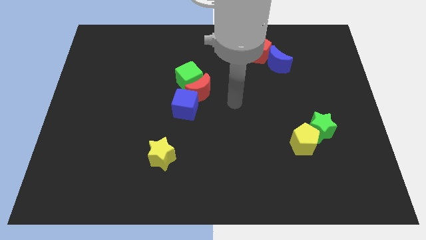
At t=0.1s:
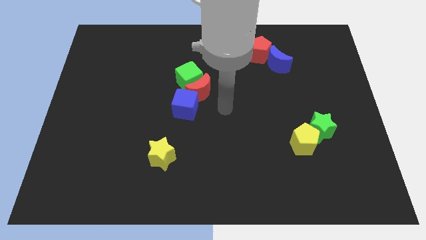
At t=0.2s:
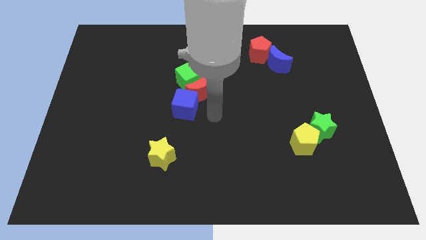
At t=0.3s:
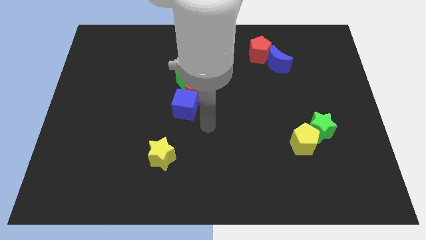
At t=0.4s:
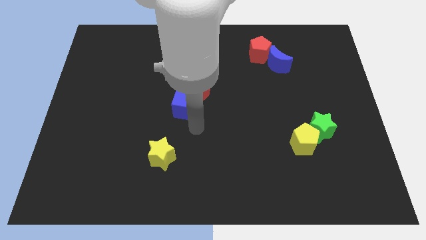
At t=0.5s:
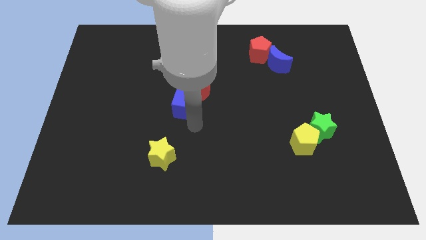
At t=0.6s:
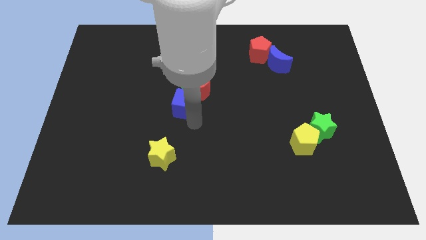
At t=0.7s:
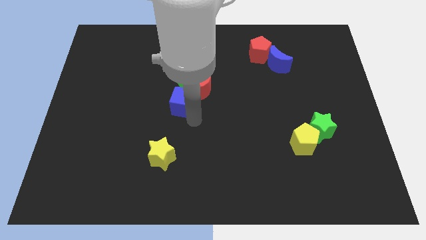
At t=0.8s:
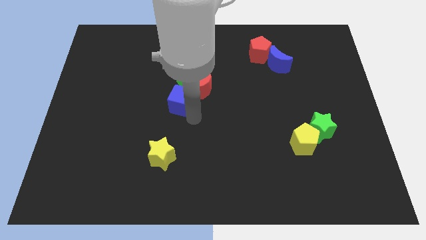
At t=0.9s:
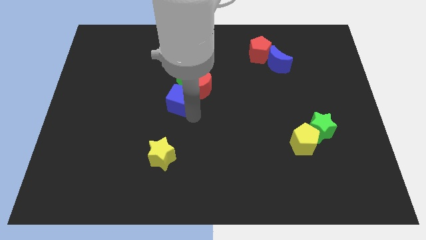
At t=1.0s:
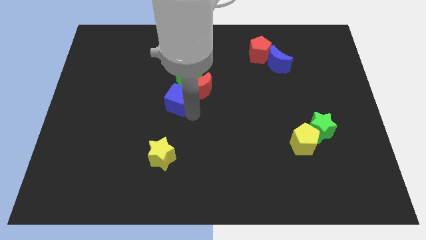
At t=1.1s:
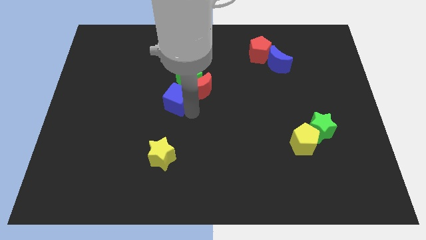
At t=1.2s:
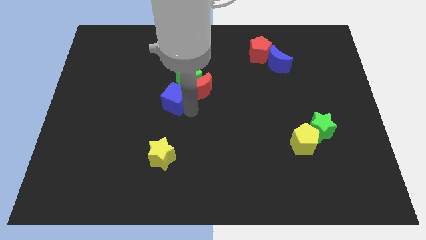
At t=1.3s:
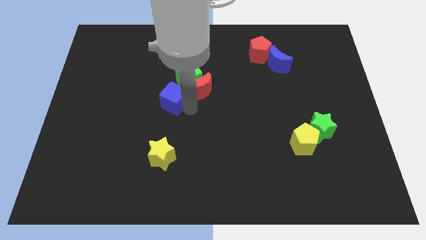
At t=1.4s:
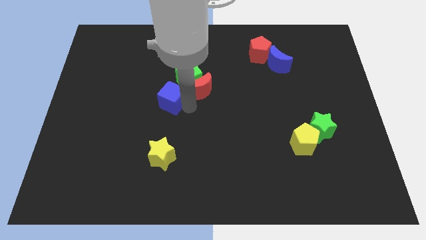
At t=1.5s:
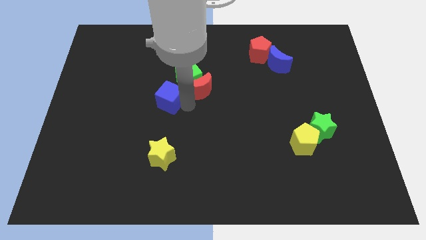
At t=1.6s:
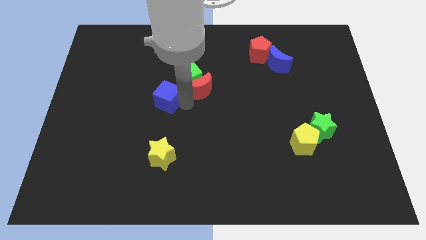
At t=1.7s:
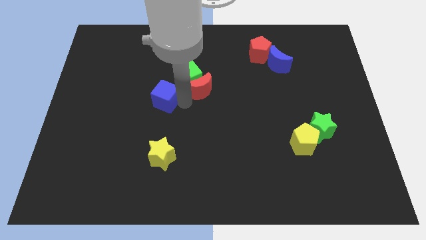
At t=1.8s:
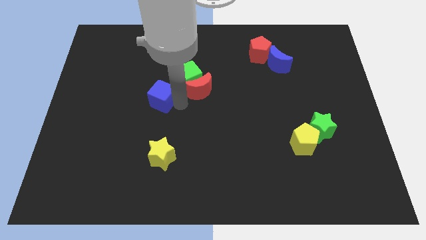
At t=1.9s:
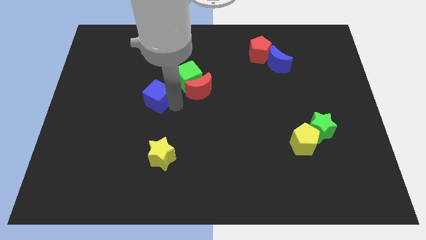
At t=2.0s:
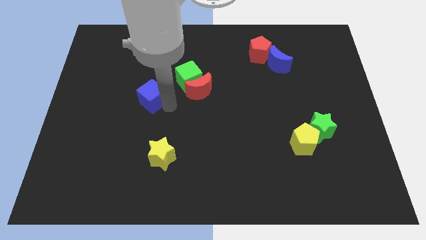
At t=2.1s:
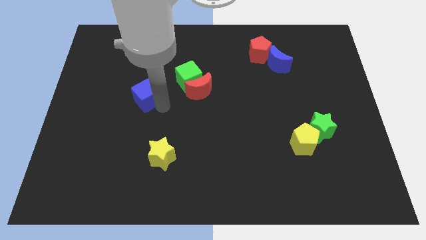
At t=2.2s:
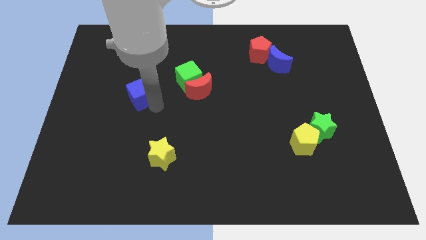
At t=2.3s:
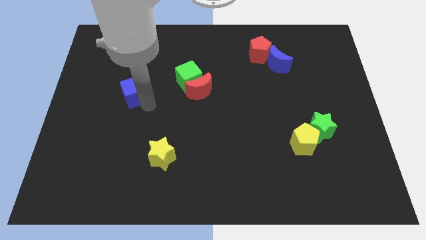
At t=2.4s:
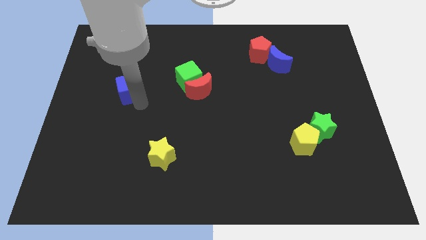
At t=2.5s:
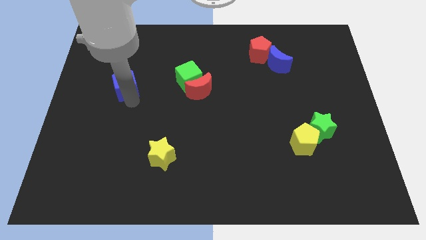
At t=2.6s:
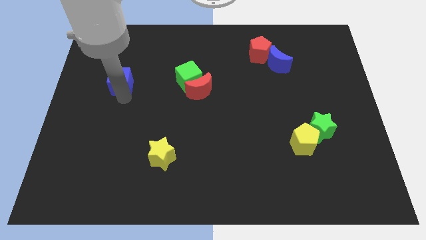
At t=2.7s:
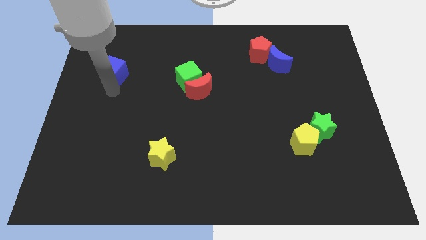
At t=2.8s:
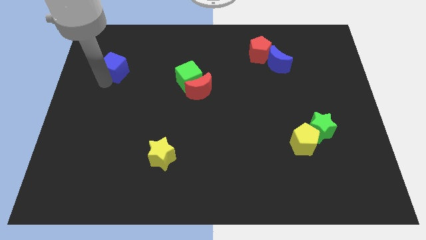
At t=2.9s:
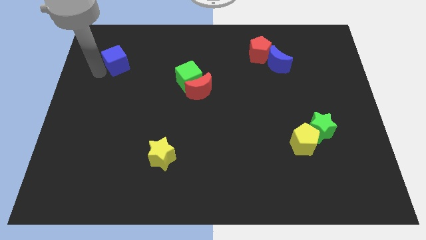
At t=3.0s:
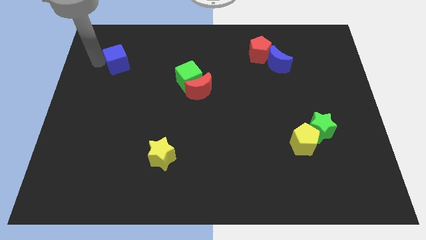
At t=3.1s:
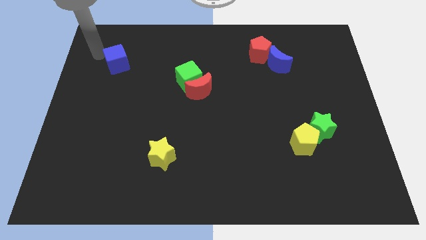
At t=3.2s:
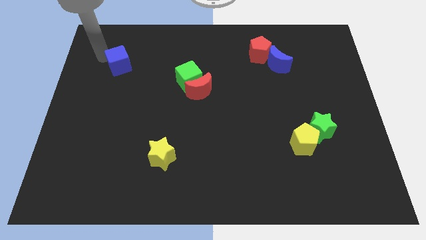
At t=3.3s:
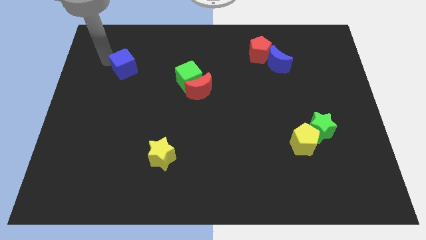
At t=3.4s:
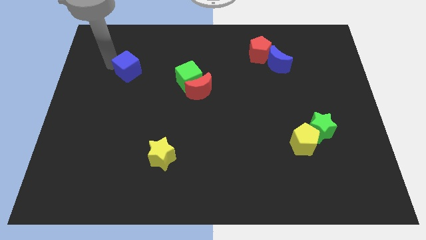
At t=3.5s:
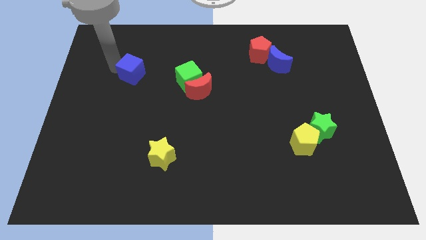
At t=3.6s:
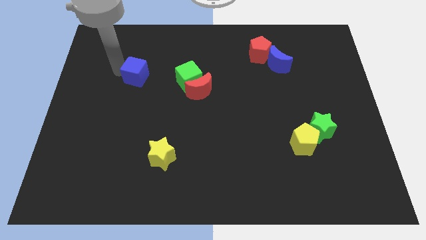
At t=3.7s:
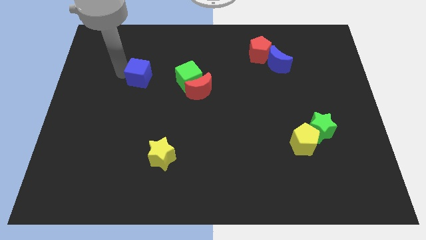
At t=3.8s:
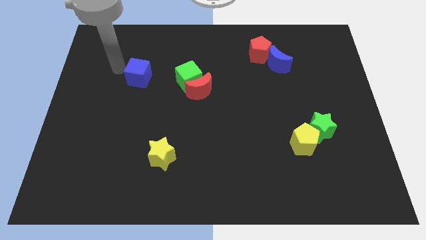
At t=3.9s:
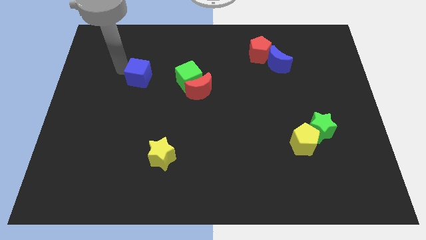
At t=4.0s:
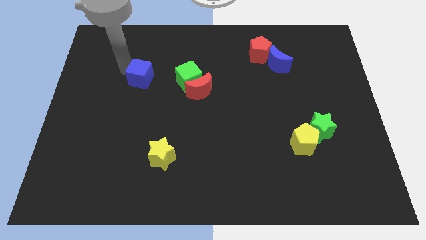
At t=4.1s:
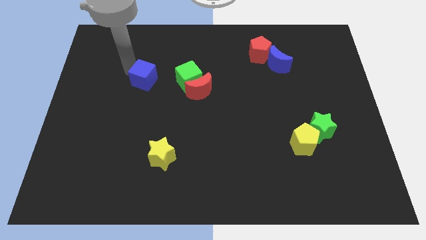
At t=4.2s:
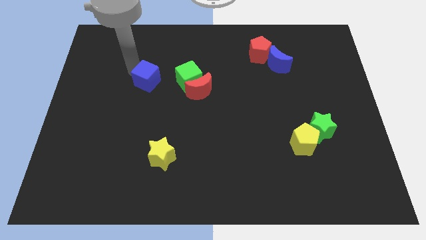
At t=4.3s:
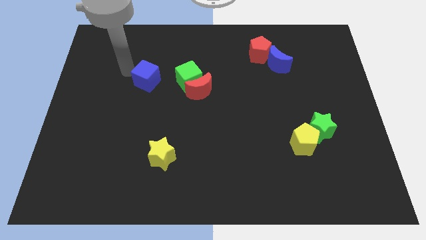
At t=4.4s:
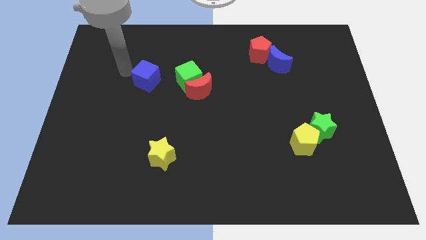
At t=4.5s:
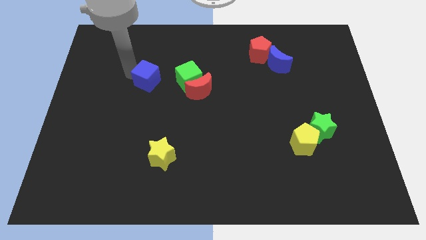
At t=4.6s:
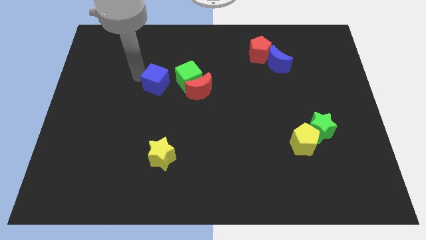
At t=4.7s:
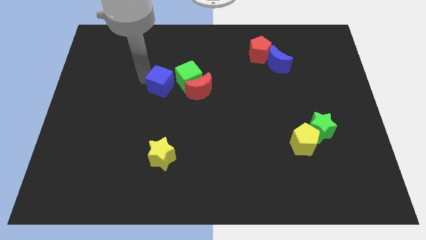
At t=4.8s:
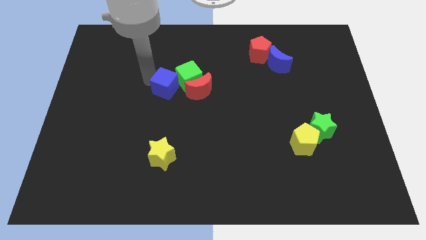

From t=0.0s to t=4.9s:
move the blue cube next to the green cube

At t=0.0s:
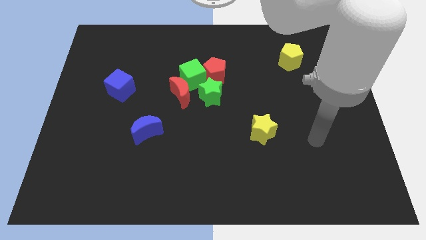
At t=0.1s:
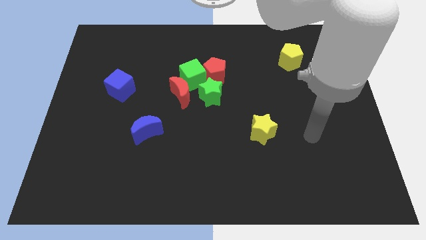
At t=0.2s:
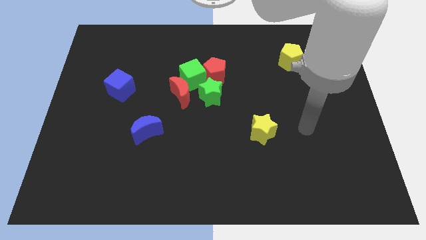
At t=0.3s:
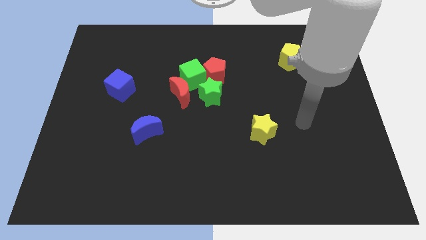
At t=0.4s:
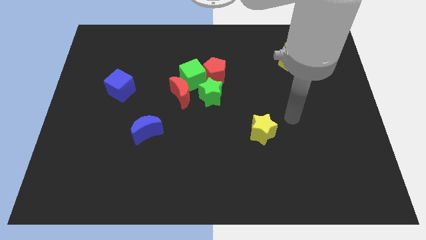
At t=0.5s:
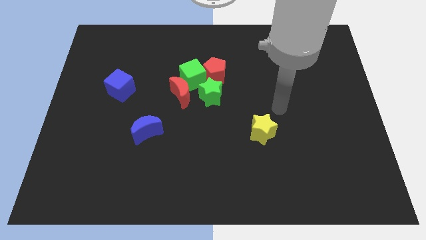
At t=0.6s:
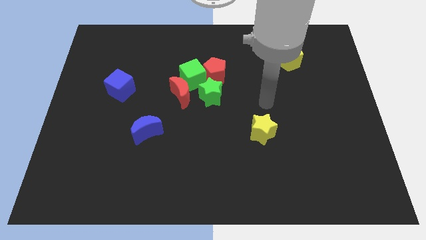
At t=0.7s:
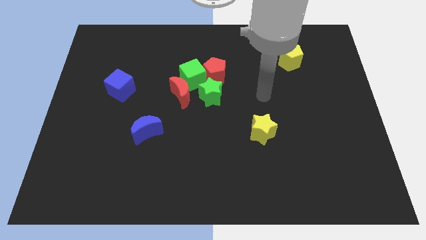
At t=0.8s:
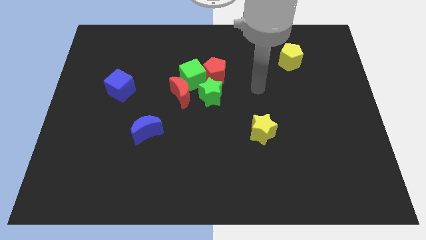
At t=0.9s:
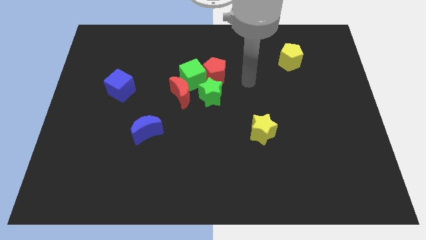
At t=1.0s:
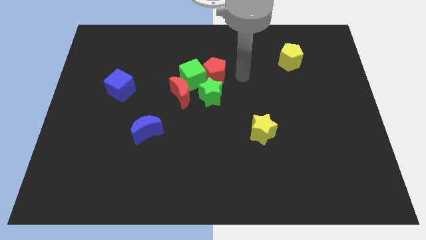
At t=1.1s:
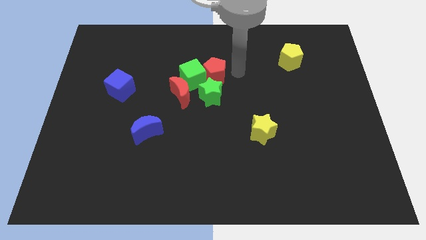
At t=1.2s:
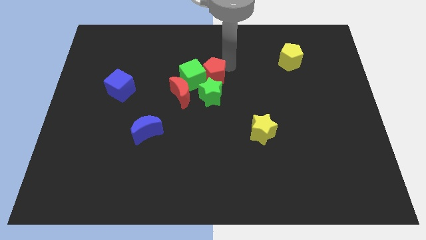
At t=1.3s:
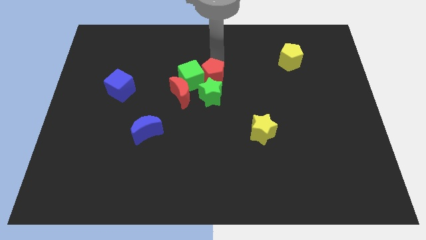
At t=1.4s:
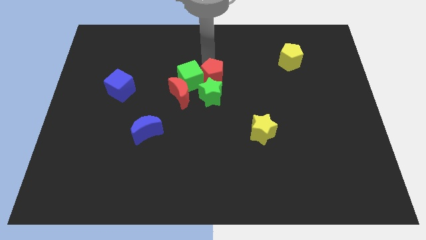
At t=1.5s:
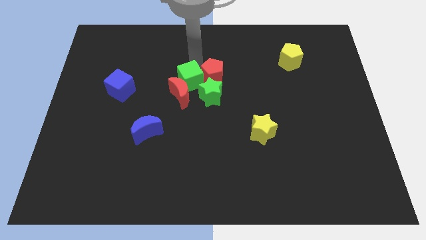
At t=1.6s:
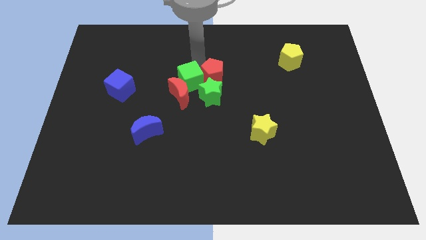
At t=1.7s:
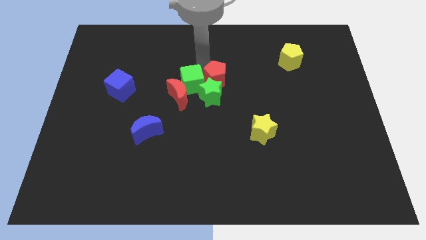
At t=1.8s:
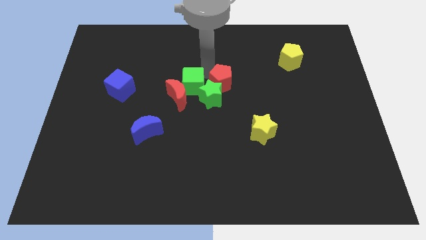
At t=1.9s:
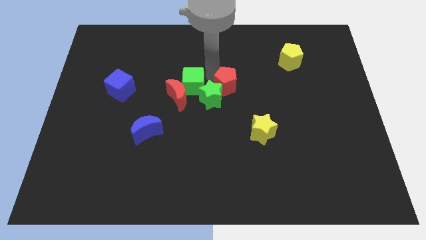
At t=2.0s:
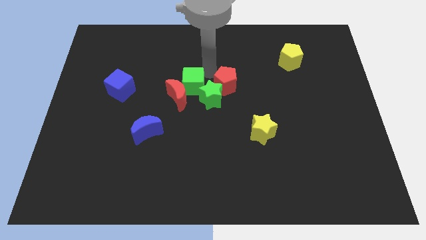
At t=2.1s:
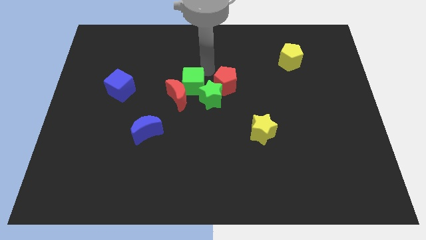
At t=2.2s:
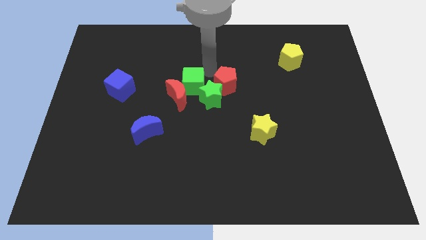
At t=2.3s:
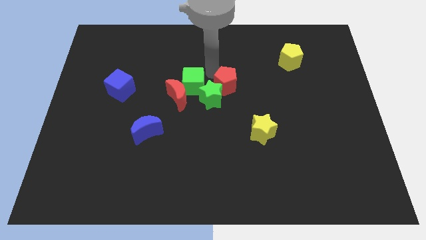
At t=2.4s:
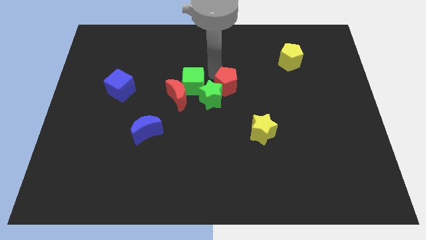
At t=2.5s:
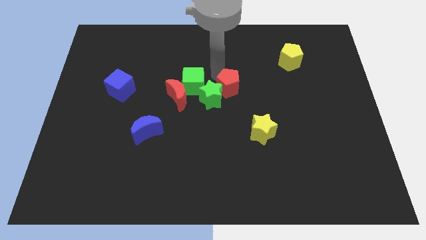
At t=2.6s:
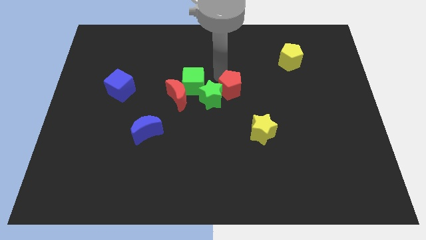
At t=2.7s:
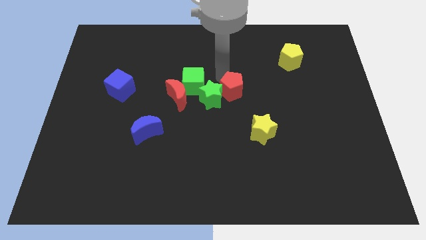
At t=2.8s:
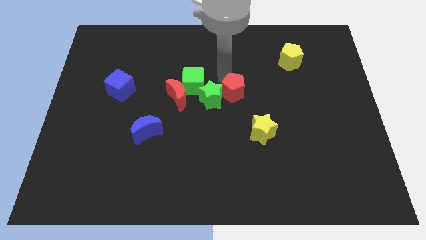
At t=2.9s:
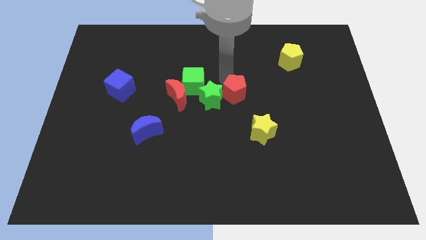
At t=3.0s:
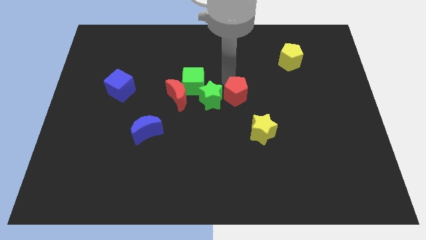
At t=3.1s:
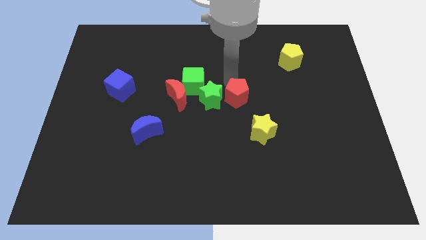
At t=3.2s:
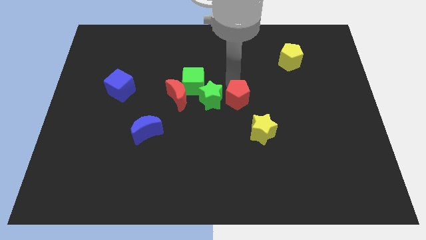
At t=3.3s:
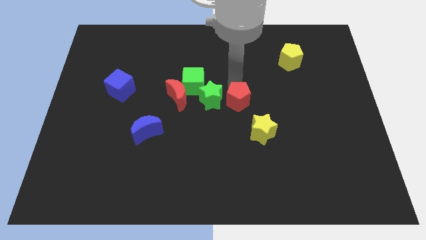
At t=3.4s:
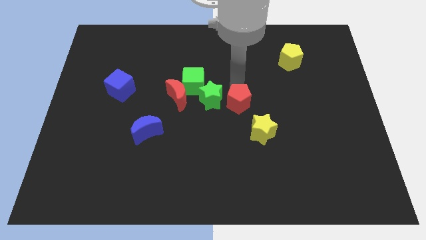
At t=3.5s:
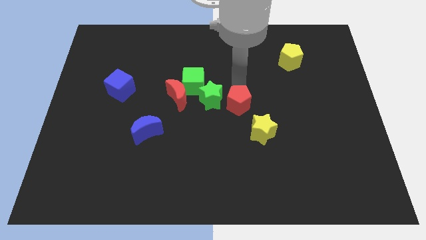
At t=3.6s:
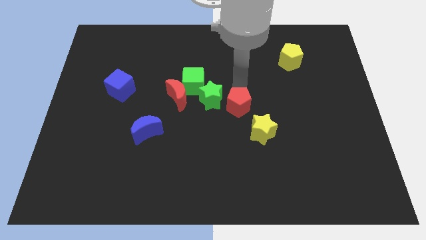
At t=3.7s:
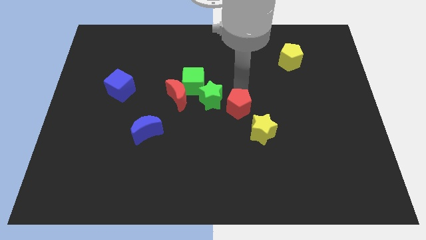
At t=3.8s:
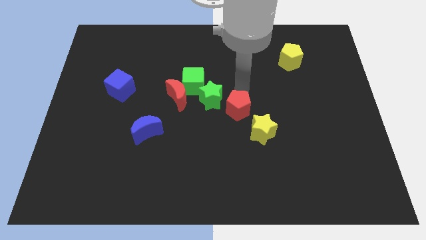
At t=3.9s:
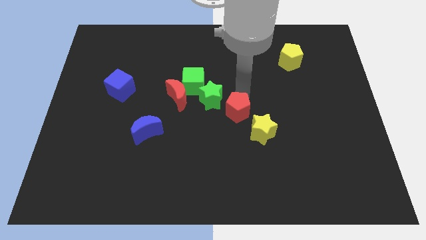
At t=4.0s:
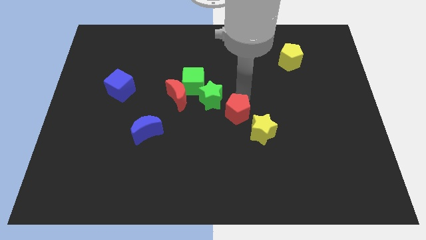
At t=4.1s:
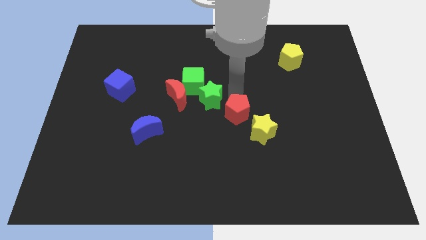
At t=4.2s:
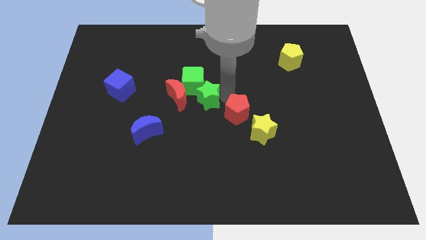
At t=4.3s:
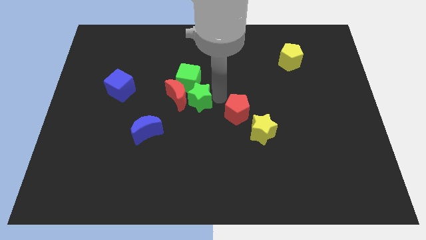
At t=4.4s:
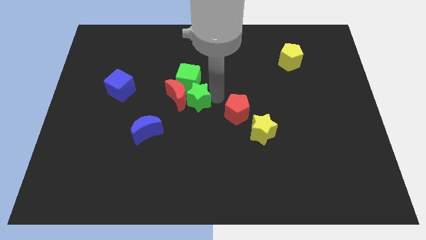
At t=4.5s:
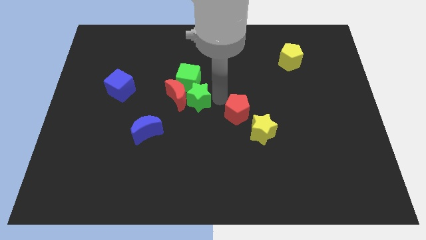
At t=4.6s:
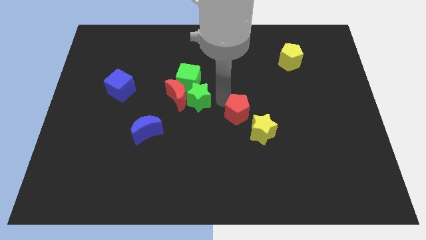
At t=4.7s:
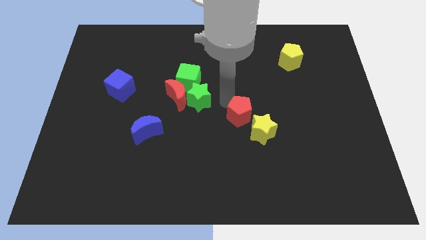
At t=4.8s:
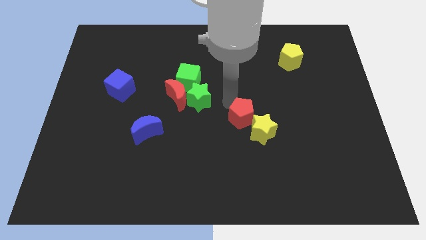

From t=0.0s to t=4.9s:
move the red pentagon next to the yellow star
